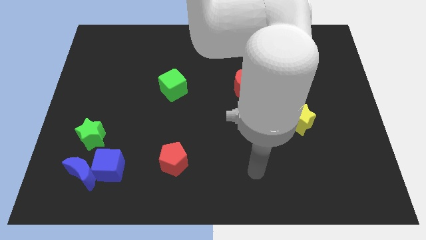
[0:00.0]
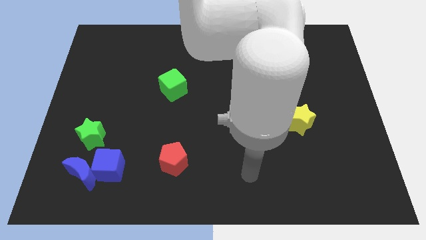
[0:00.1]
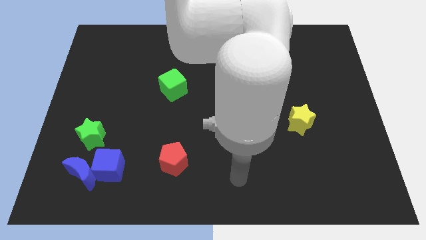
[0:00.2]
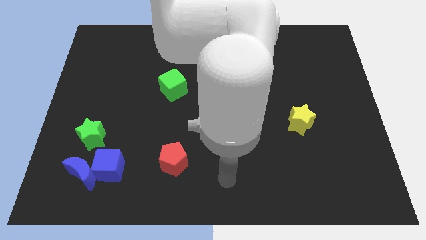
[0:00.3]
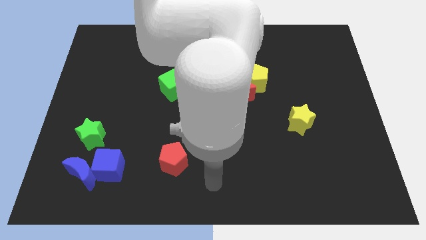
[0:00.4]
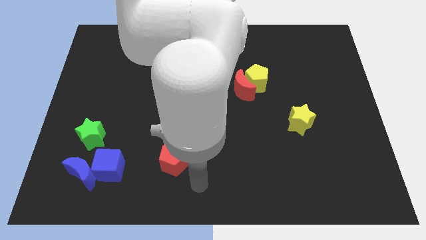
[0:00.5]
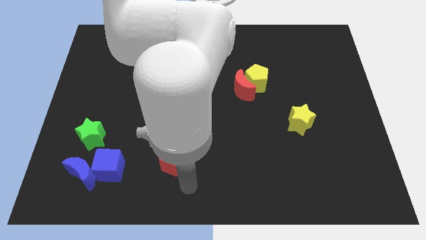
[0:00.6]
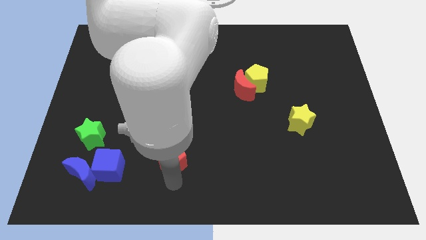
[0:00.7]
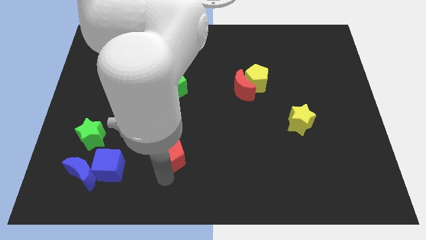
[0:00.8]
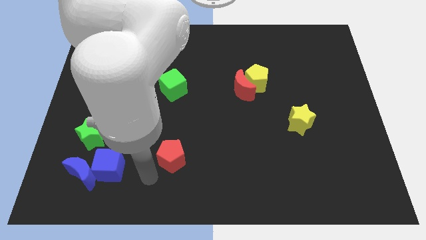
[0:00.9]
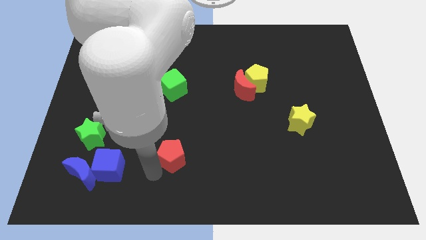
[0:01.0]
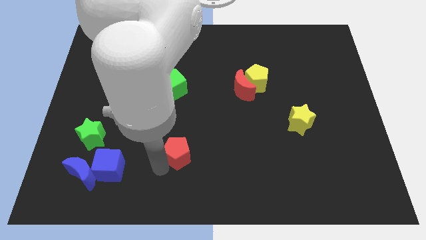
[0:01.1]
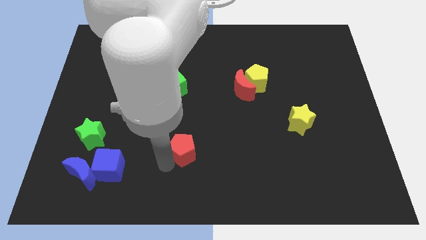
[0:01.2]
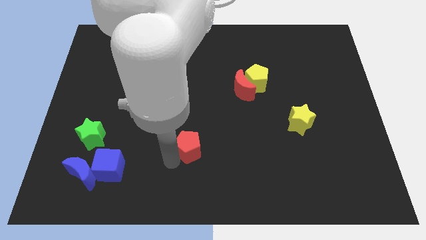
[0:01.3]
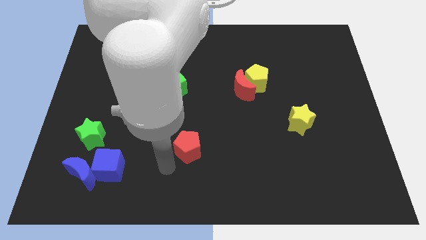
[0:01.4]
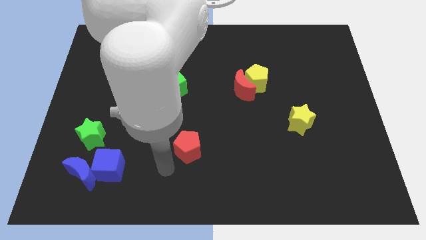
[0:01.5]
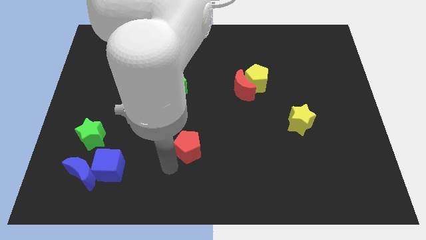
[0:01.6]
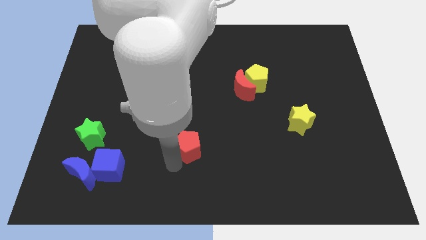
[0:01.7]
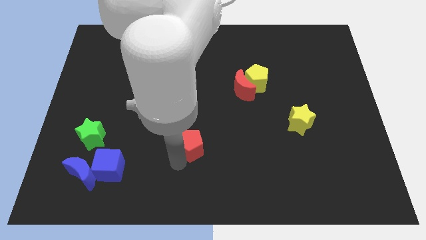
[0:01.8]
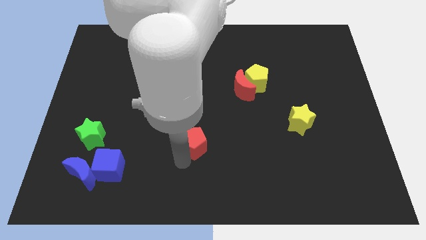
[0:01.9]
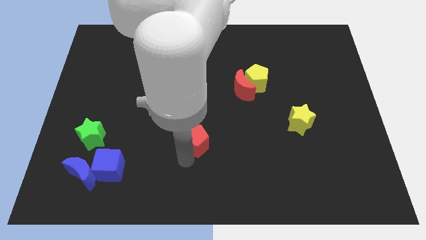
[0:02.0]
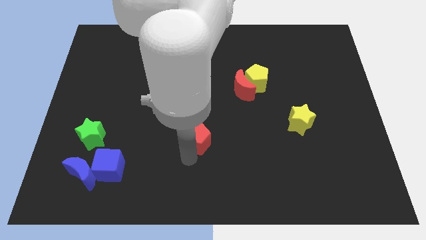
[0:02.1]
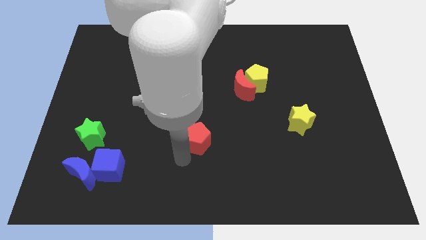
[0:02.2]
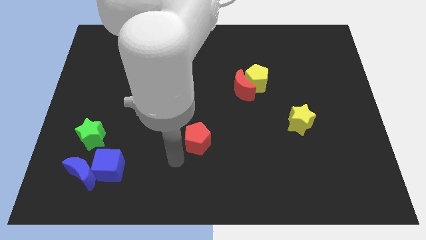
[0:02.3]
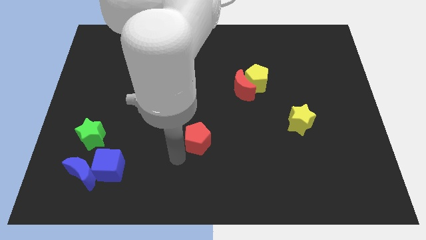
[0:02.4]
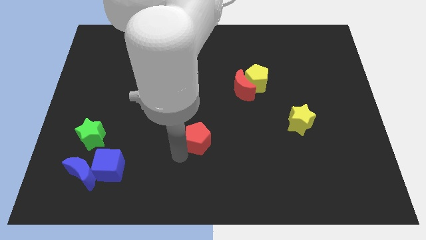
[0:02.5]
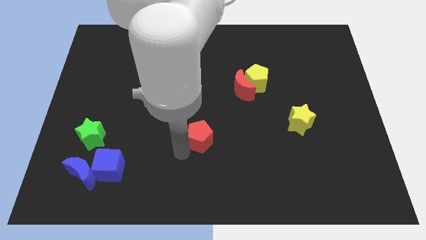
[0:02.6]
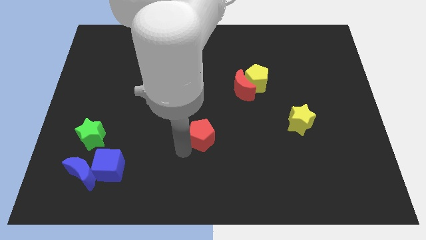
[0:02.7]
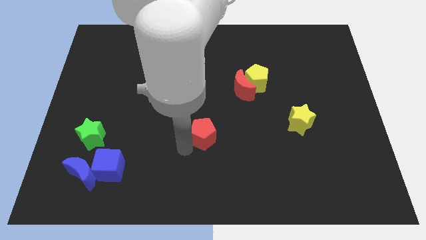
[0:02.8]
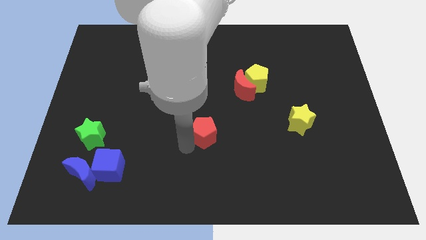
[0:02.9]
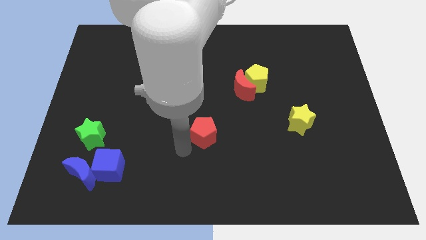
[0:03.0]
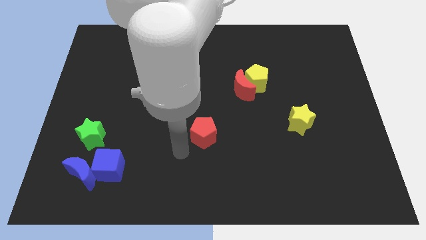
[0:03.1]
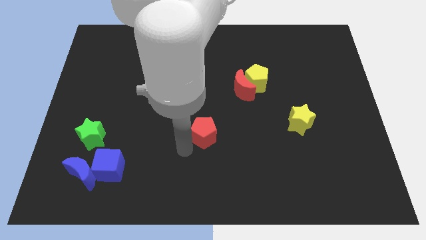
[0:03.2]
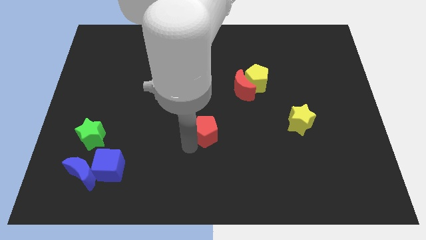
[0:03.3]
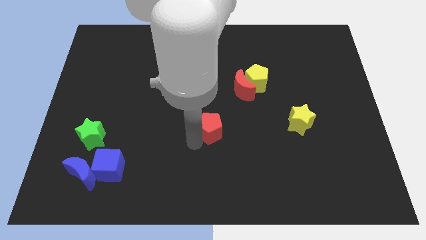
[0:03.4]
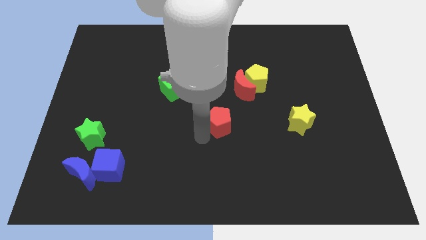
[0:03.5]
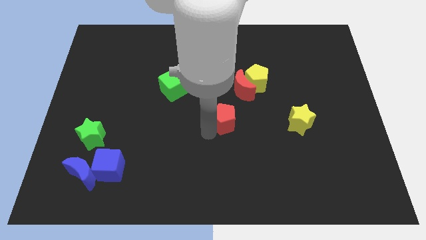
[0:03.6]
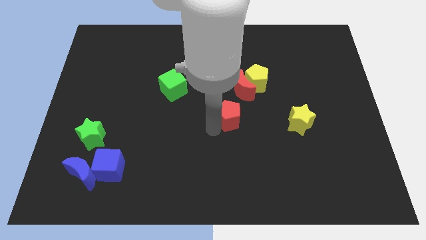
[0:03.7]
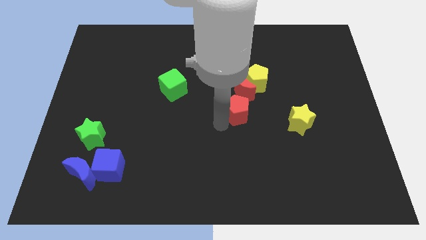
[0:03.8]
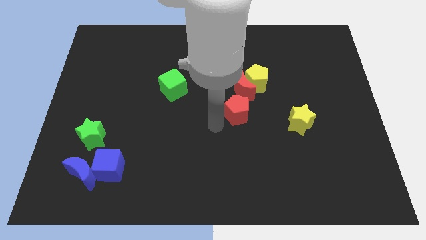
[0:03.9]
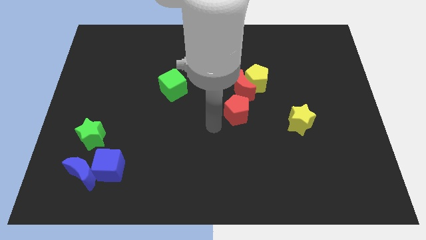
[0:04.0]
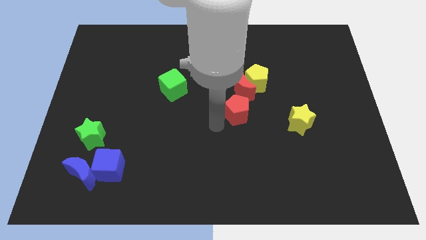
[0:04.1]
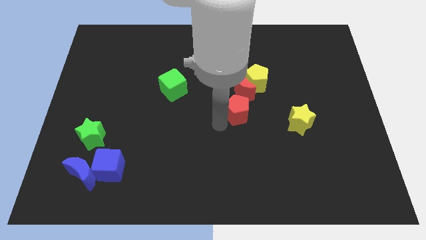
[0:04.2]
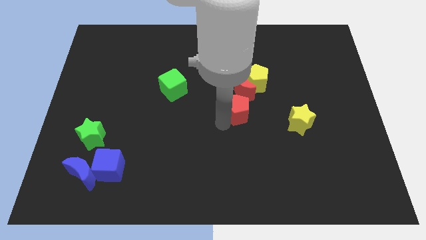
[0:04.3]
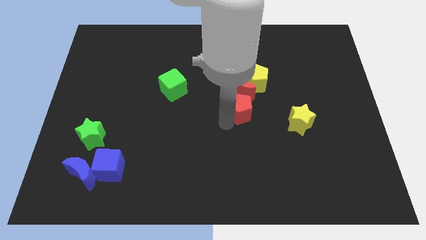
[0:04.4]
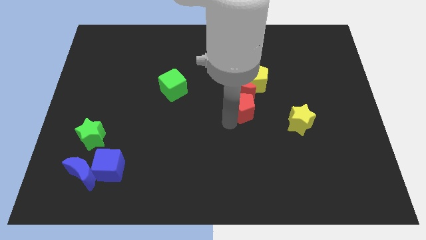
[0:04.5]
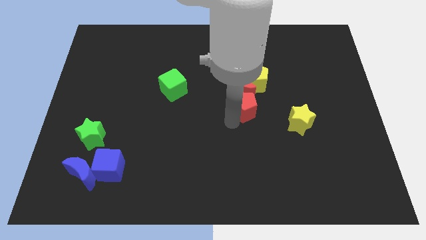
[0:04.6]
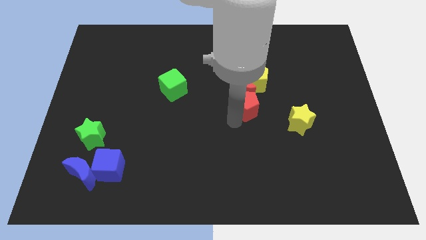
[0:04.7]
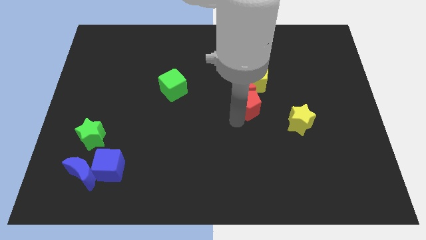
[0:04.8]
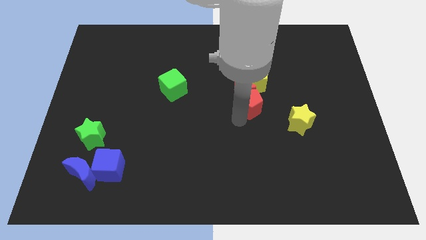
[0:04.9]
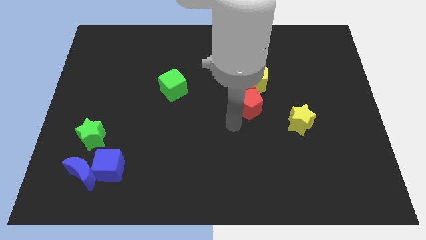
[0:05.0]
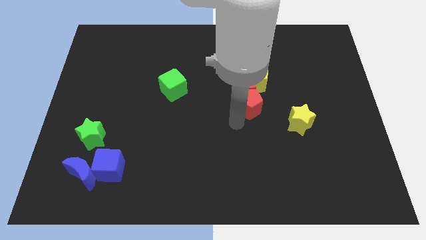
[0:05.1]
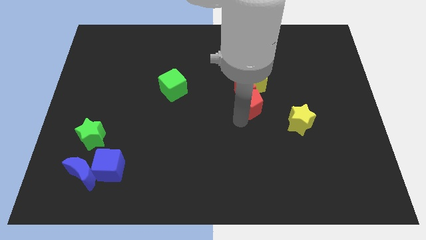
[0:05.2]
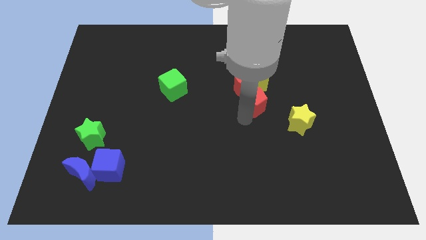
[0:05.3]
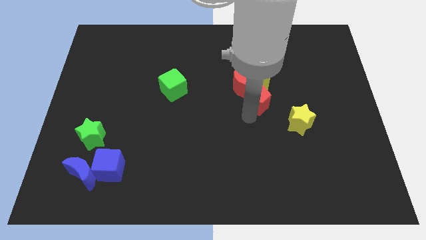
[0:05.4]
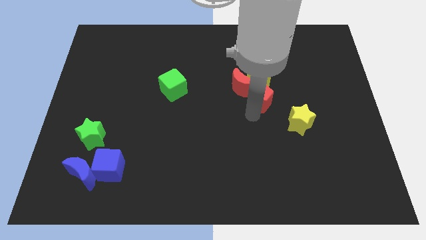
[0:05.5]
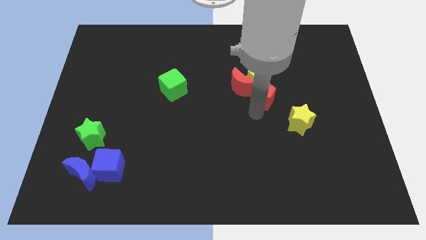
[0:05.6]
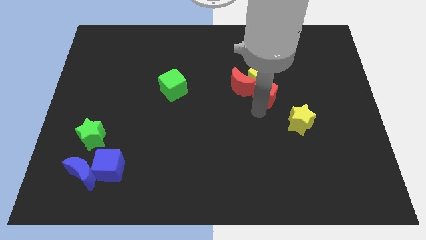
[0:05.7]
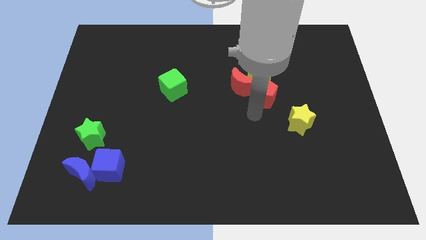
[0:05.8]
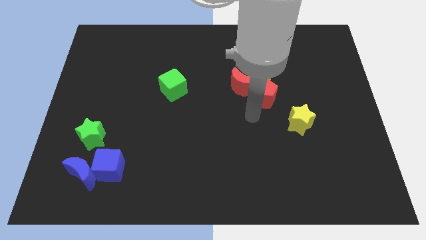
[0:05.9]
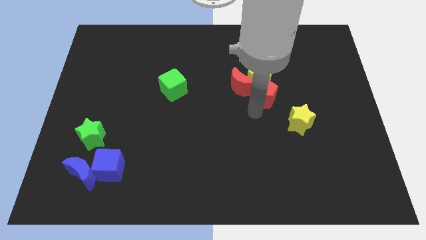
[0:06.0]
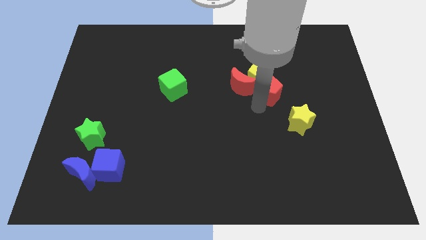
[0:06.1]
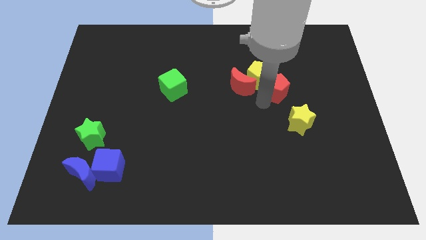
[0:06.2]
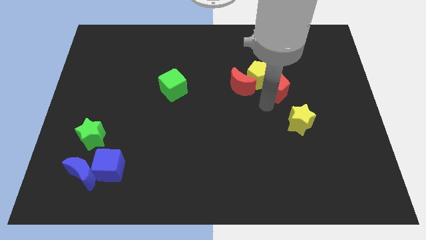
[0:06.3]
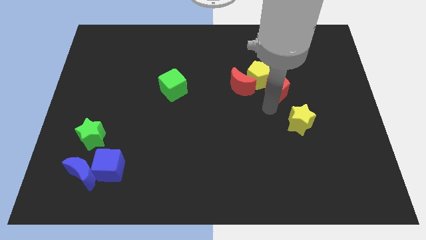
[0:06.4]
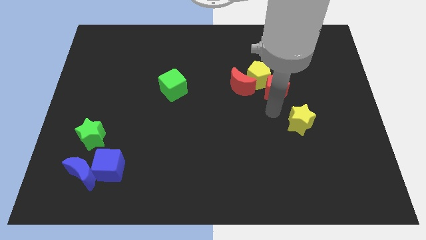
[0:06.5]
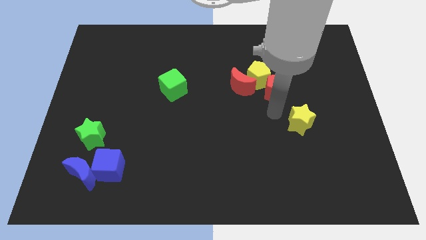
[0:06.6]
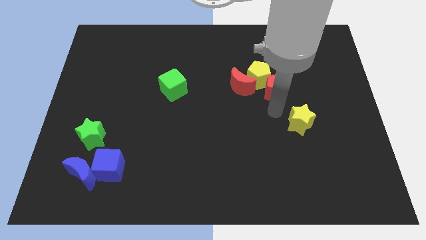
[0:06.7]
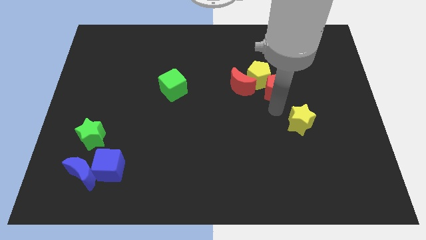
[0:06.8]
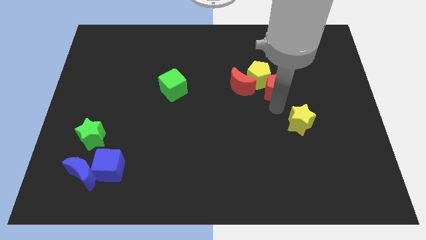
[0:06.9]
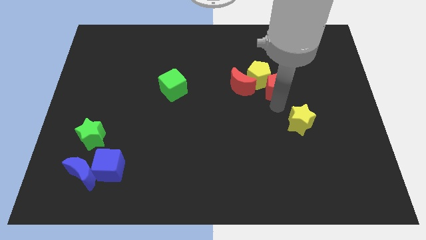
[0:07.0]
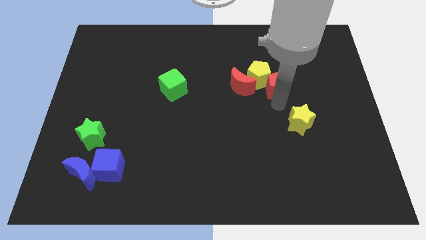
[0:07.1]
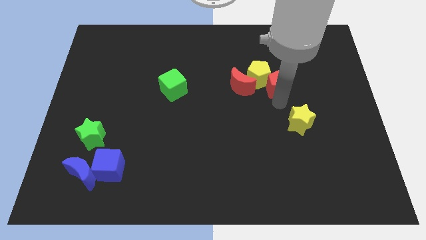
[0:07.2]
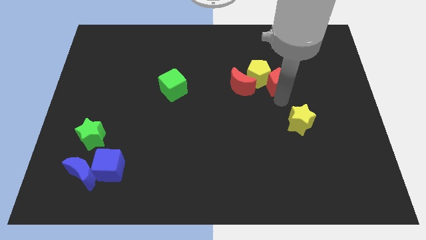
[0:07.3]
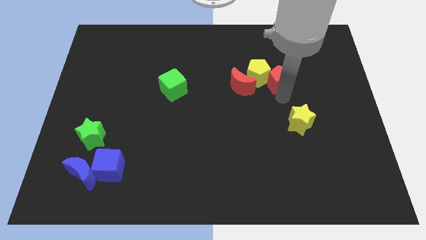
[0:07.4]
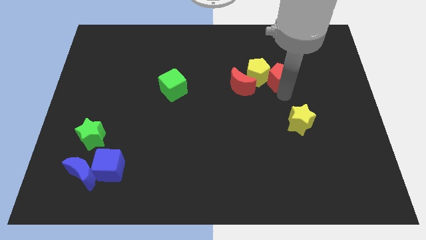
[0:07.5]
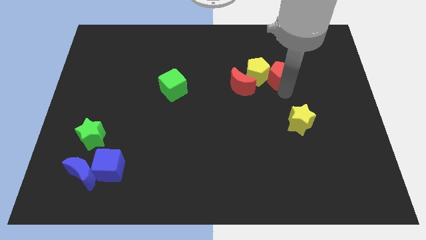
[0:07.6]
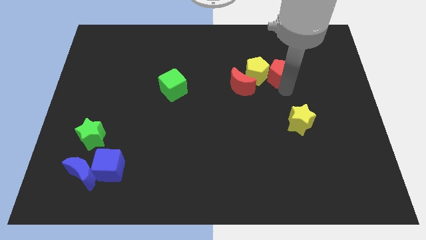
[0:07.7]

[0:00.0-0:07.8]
put the red pentagon to the top right side of the yellow pentagon
